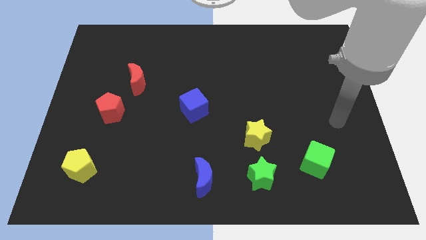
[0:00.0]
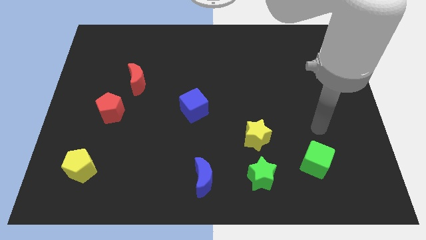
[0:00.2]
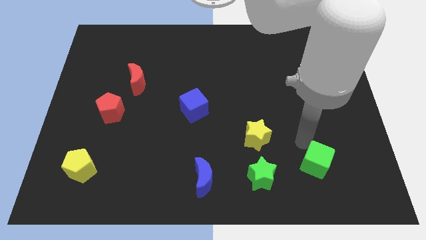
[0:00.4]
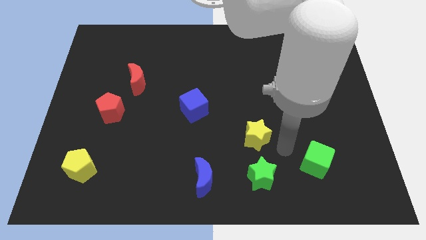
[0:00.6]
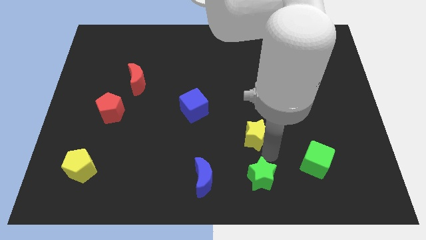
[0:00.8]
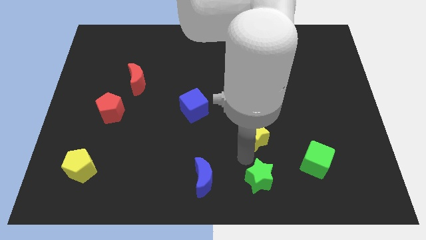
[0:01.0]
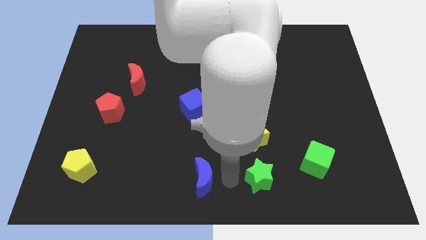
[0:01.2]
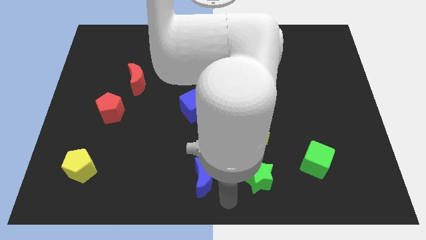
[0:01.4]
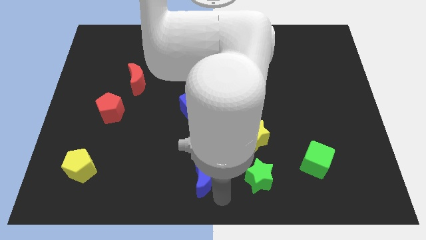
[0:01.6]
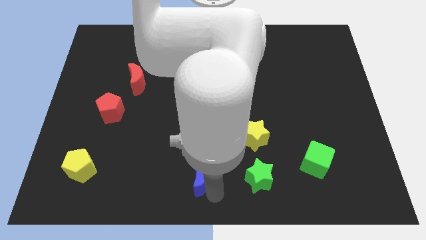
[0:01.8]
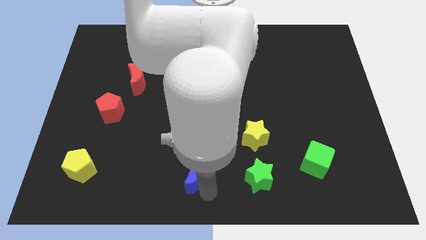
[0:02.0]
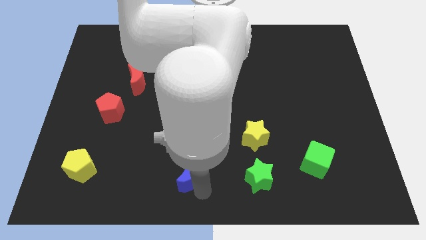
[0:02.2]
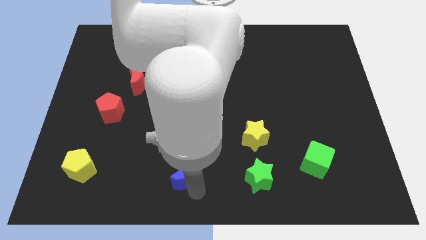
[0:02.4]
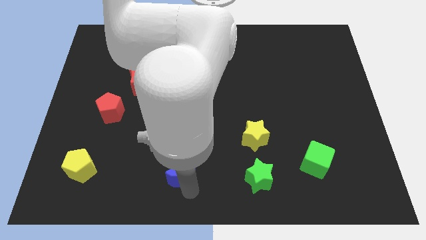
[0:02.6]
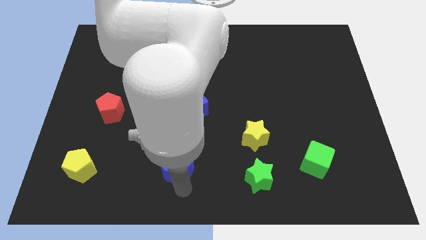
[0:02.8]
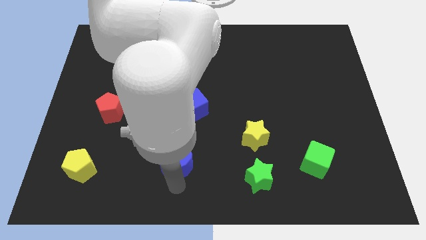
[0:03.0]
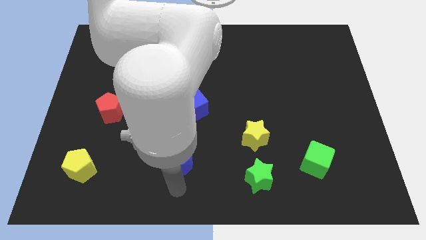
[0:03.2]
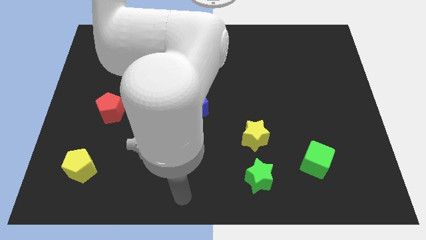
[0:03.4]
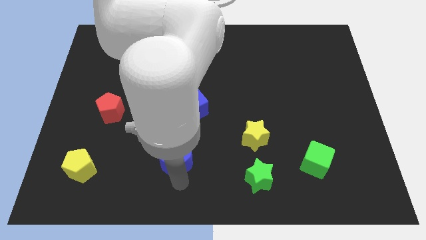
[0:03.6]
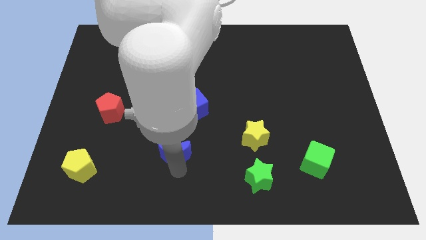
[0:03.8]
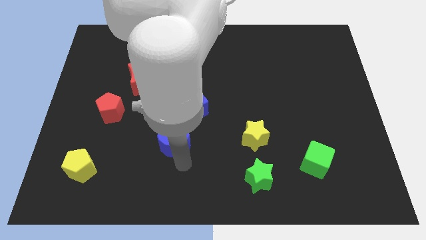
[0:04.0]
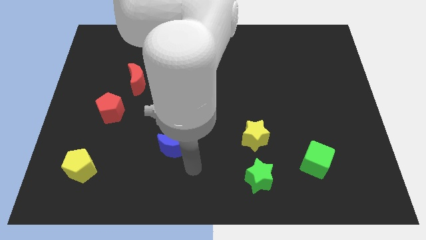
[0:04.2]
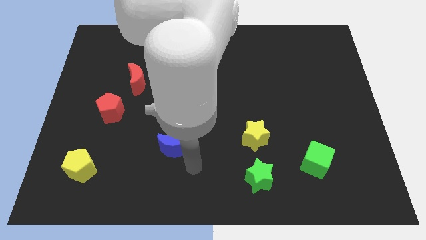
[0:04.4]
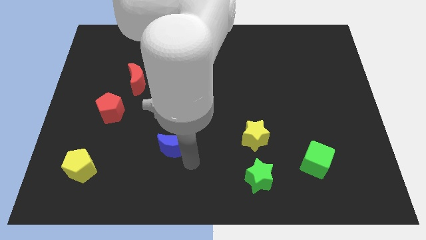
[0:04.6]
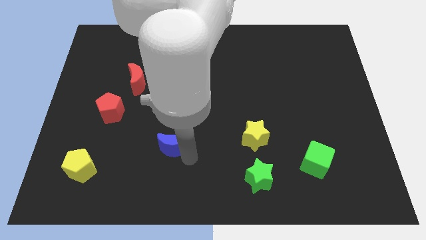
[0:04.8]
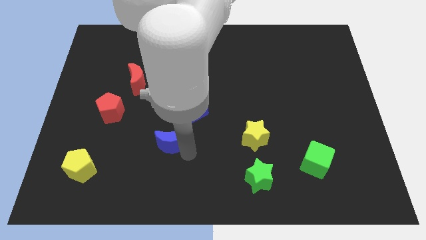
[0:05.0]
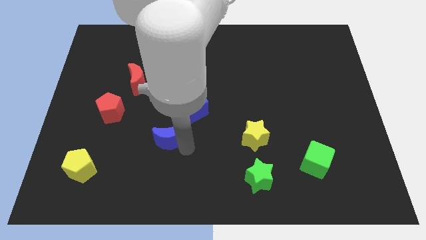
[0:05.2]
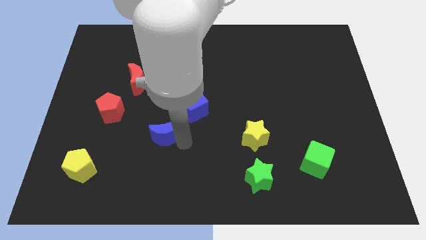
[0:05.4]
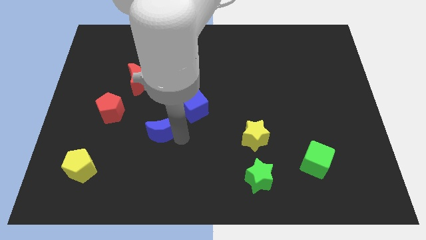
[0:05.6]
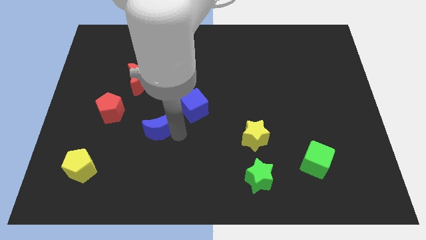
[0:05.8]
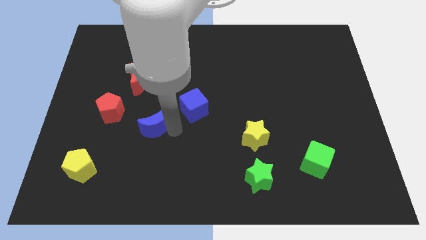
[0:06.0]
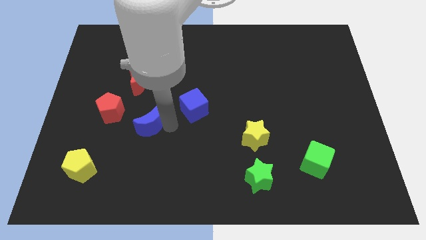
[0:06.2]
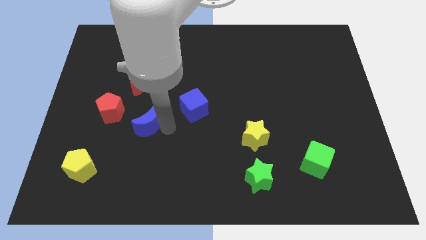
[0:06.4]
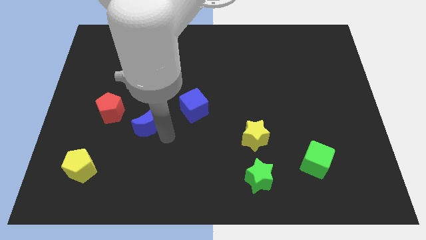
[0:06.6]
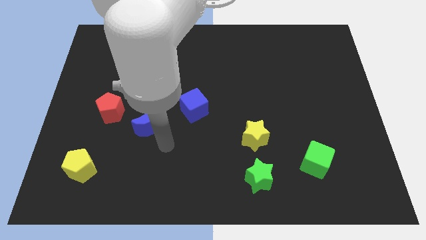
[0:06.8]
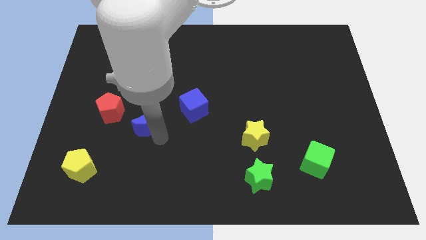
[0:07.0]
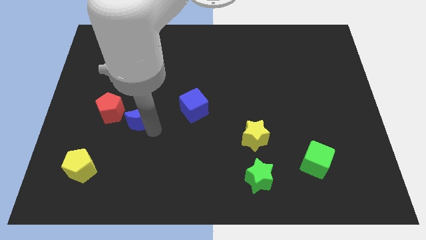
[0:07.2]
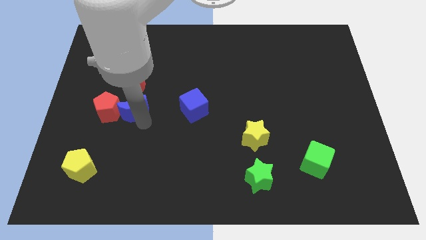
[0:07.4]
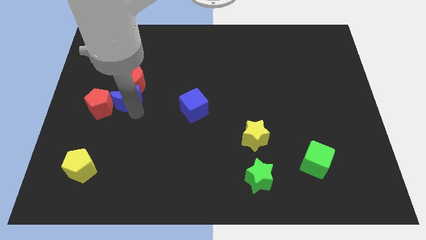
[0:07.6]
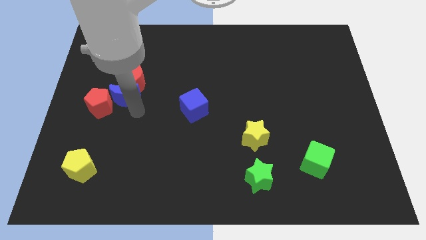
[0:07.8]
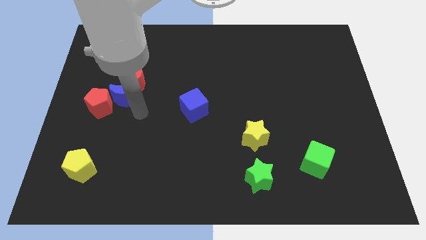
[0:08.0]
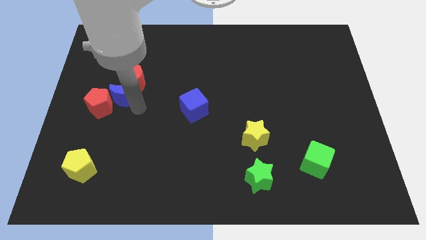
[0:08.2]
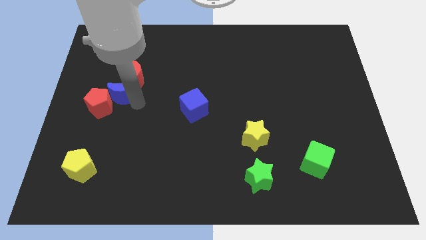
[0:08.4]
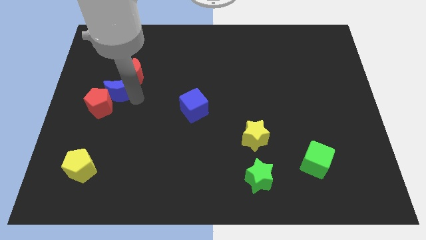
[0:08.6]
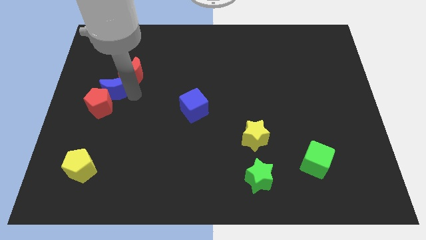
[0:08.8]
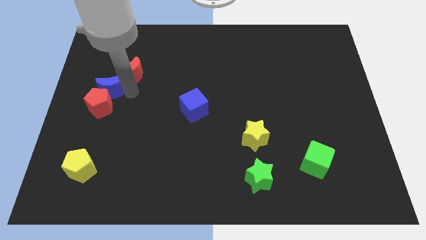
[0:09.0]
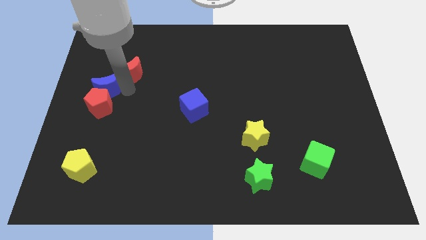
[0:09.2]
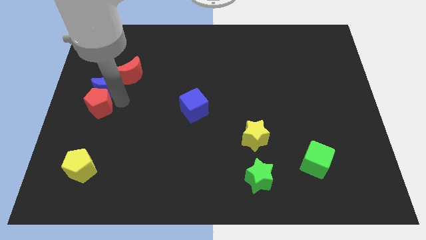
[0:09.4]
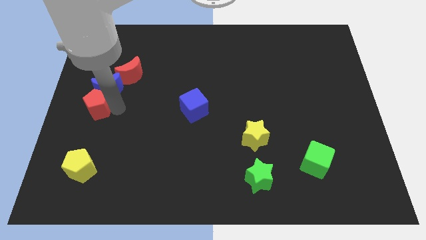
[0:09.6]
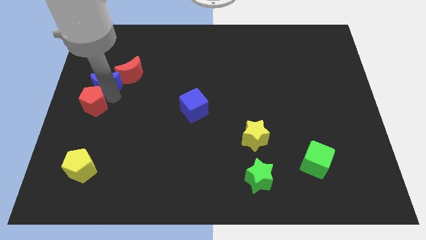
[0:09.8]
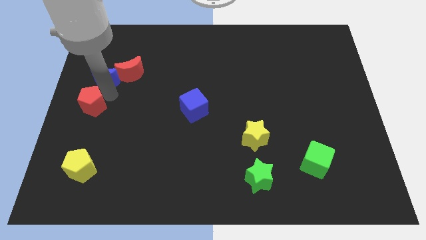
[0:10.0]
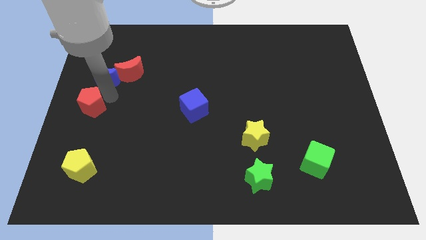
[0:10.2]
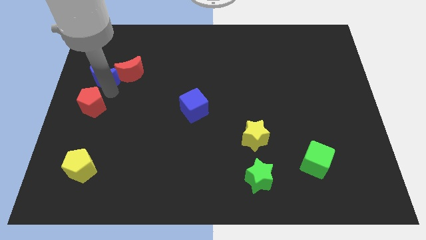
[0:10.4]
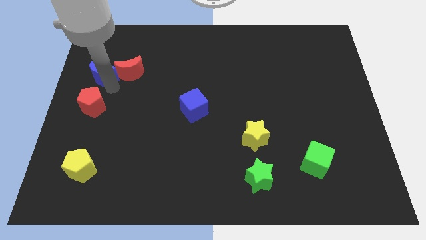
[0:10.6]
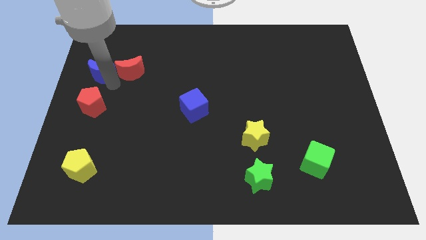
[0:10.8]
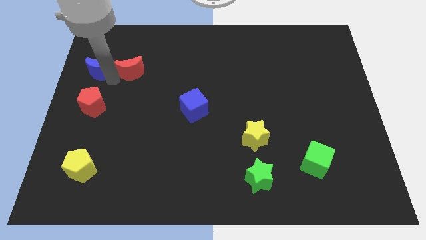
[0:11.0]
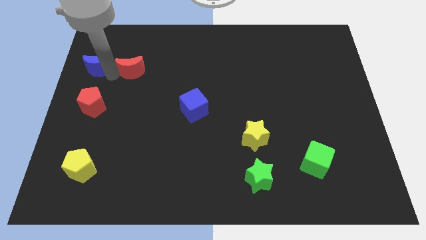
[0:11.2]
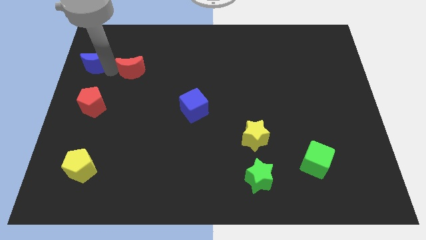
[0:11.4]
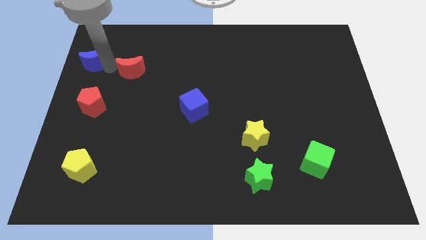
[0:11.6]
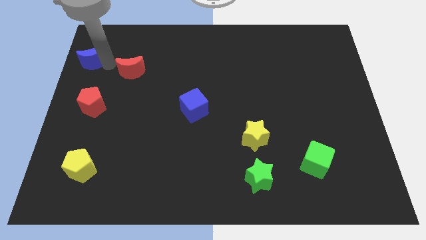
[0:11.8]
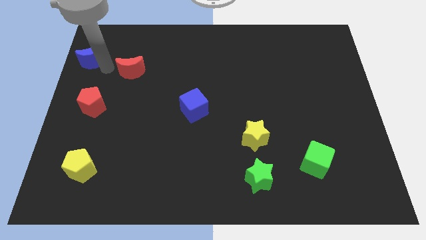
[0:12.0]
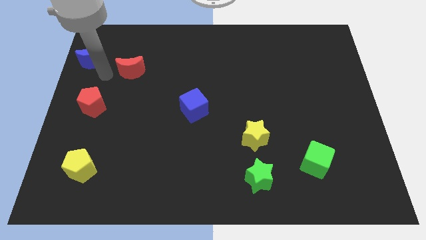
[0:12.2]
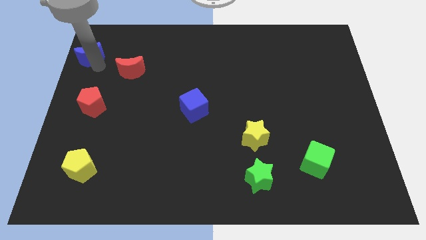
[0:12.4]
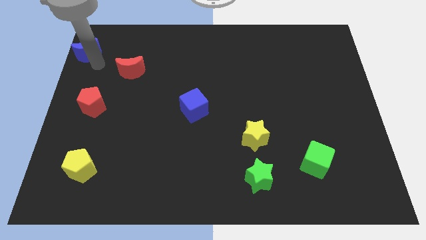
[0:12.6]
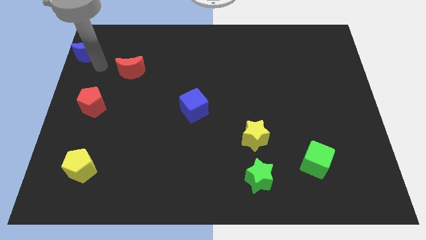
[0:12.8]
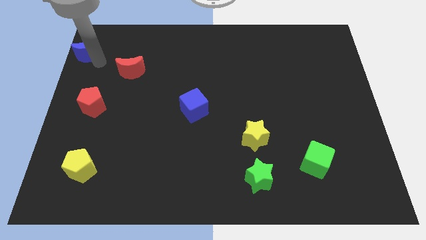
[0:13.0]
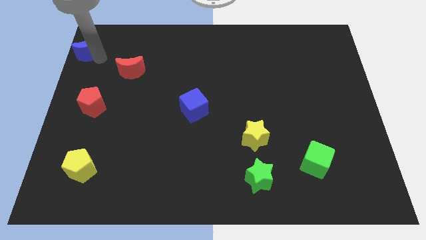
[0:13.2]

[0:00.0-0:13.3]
put the blue moon to the top left
